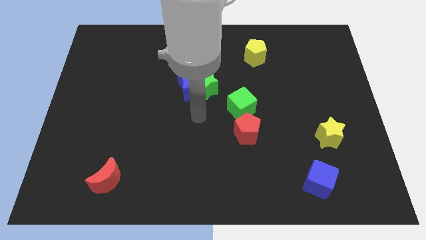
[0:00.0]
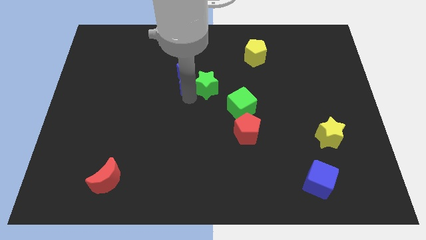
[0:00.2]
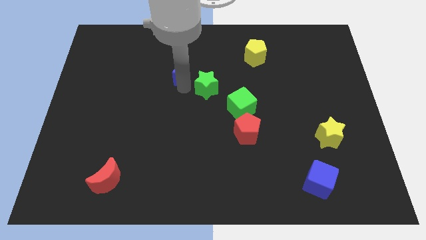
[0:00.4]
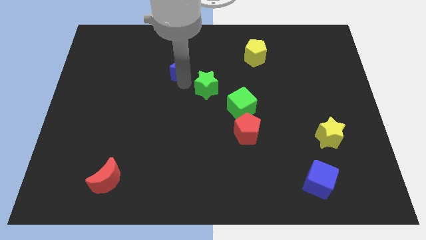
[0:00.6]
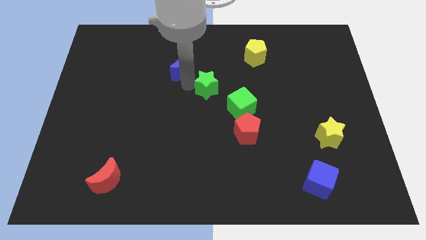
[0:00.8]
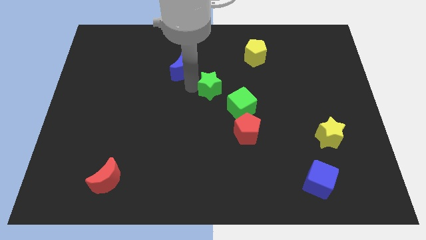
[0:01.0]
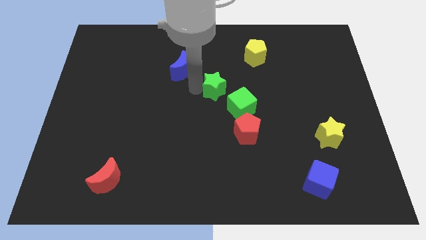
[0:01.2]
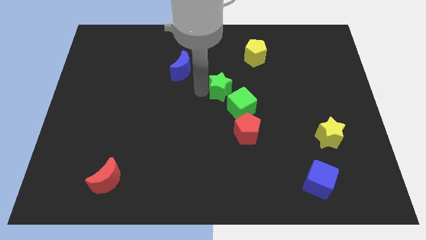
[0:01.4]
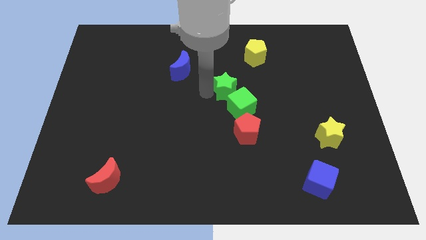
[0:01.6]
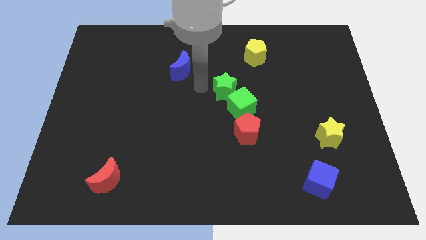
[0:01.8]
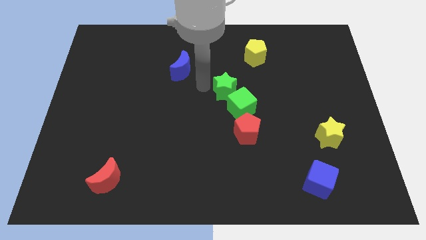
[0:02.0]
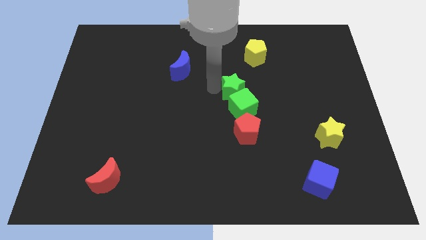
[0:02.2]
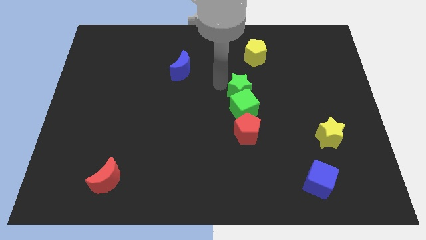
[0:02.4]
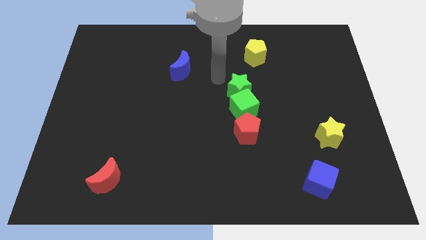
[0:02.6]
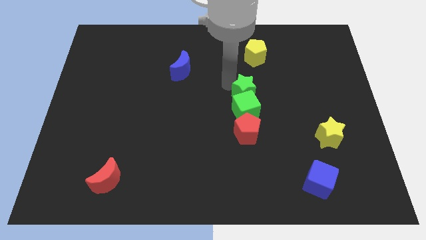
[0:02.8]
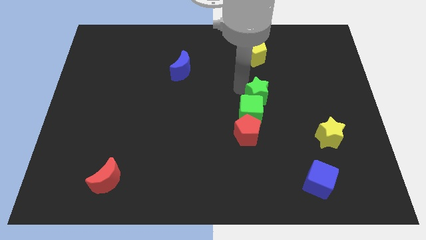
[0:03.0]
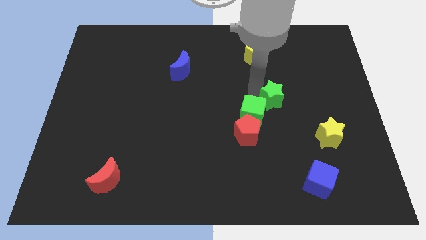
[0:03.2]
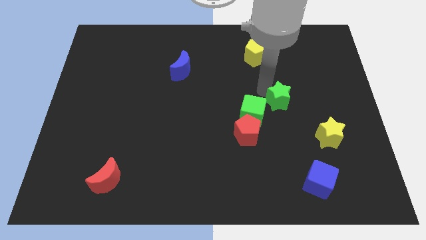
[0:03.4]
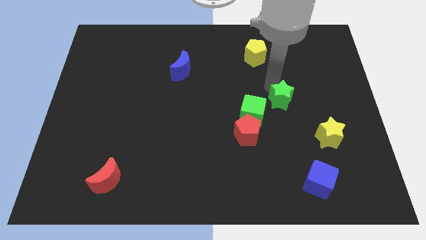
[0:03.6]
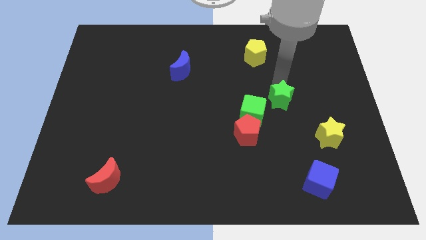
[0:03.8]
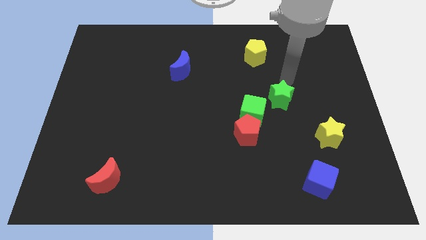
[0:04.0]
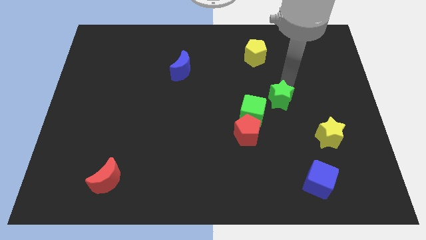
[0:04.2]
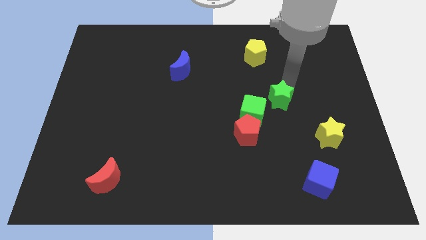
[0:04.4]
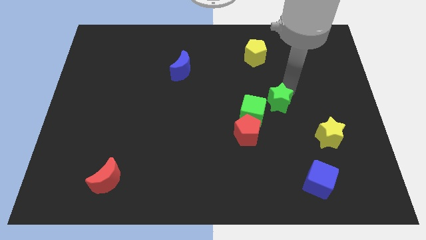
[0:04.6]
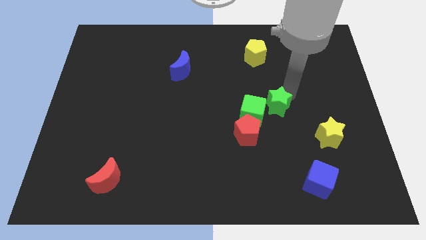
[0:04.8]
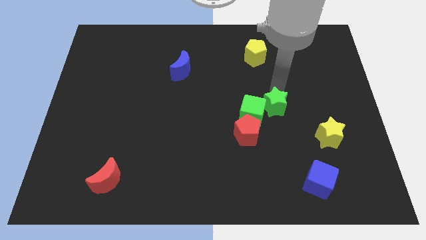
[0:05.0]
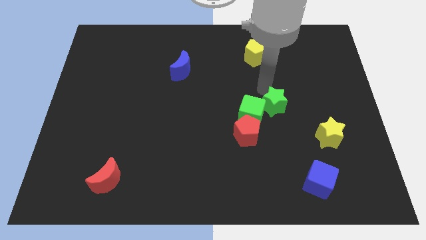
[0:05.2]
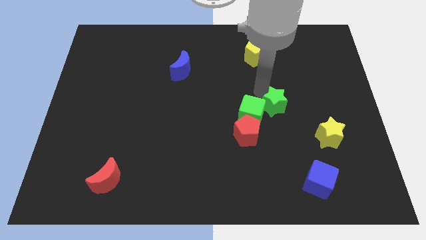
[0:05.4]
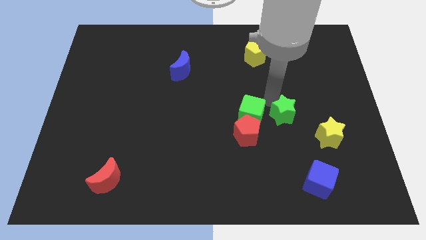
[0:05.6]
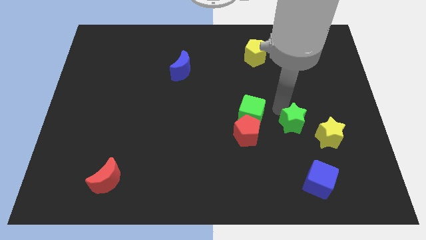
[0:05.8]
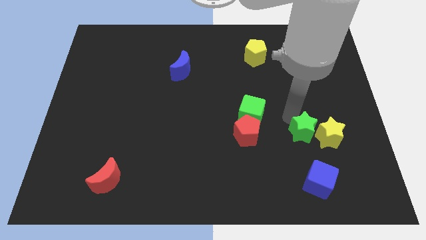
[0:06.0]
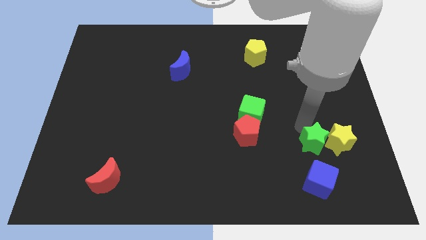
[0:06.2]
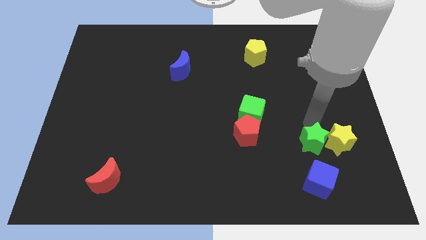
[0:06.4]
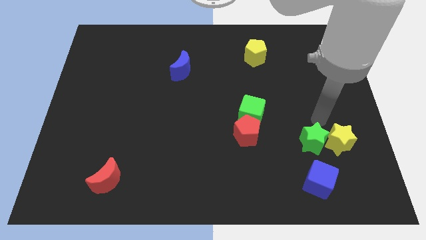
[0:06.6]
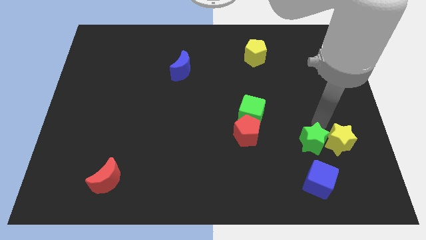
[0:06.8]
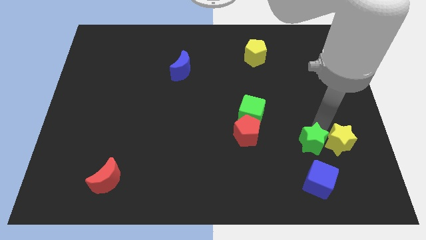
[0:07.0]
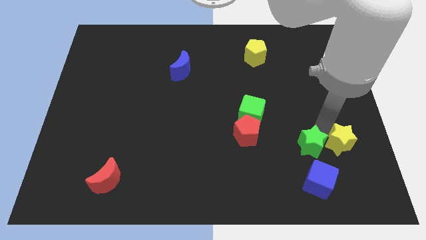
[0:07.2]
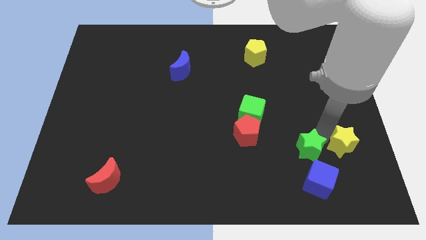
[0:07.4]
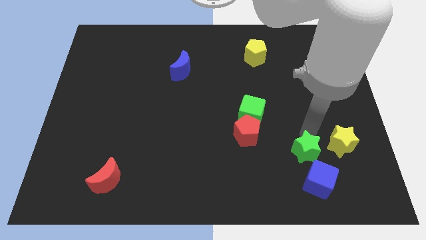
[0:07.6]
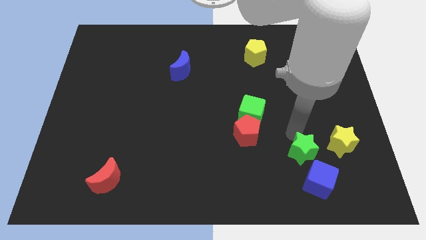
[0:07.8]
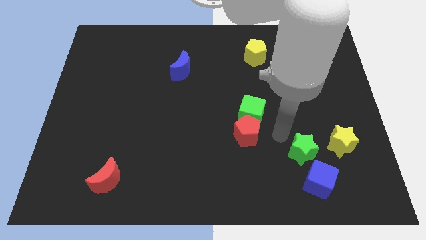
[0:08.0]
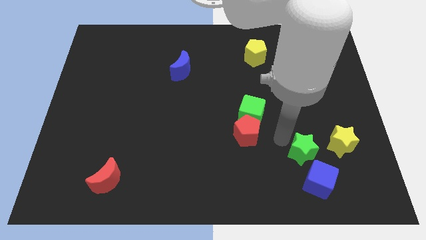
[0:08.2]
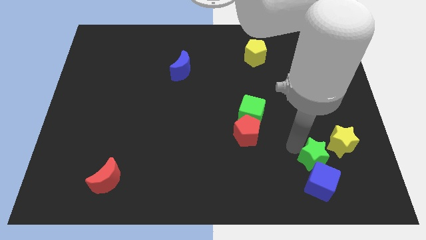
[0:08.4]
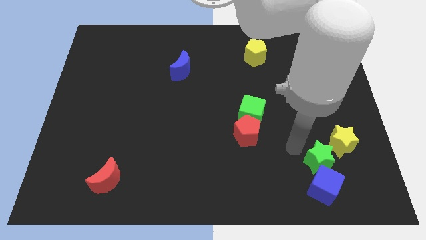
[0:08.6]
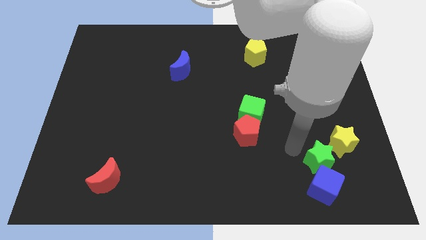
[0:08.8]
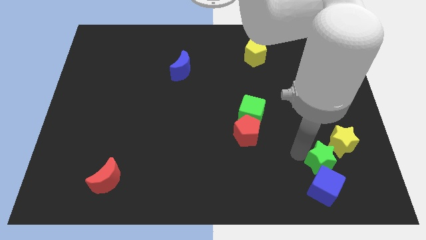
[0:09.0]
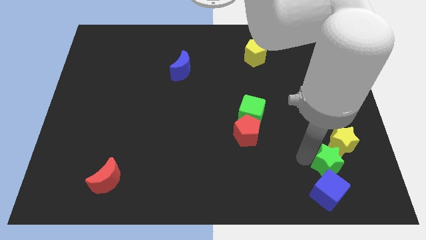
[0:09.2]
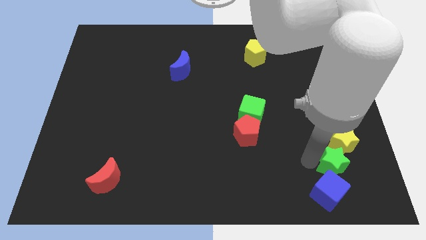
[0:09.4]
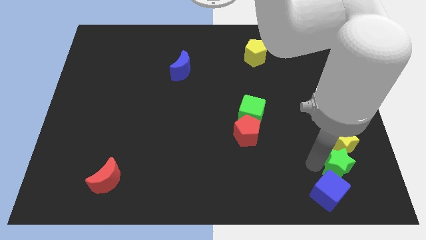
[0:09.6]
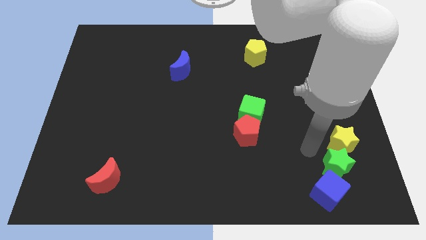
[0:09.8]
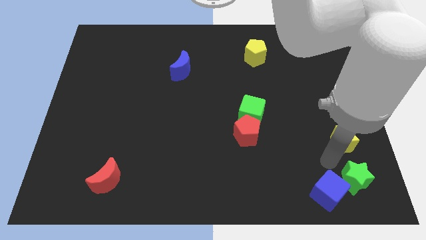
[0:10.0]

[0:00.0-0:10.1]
slide the green star to the bottom right
